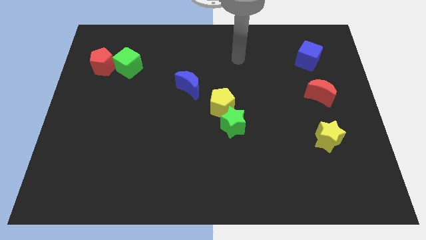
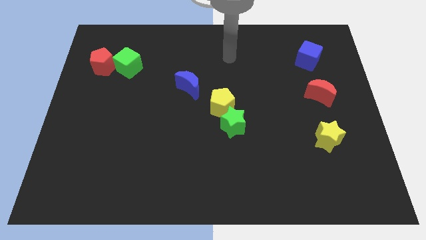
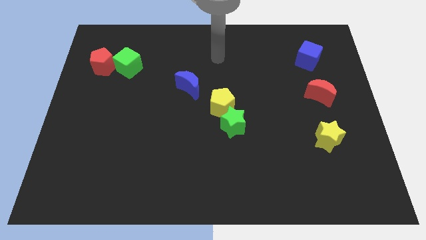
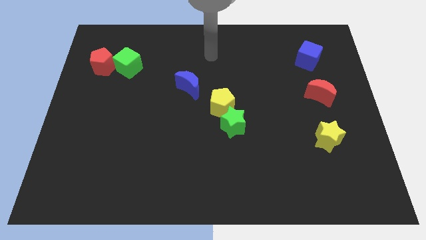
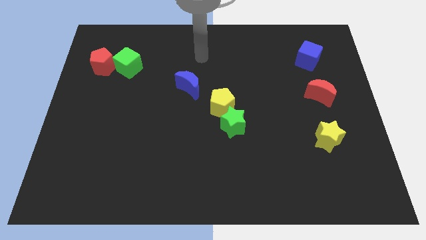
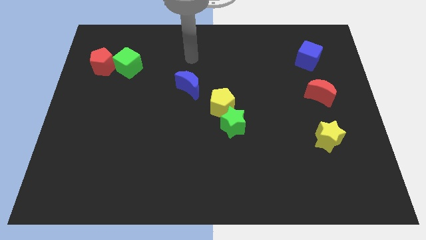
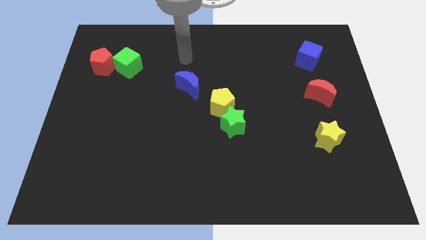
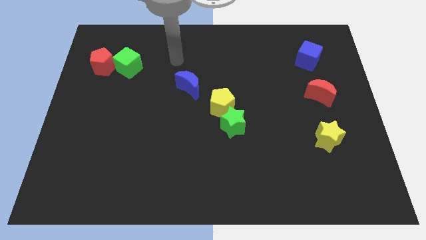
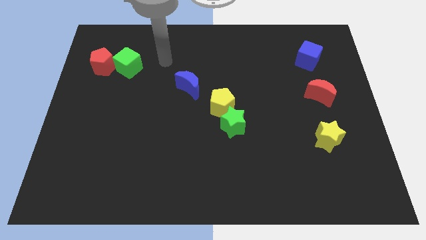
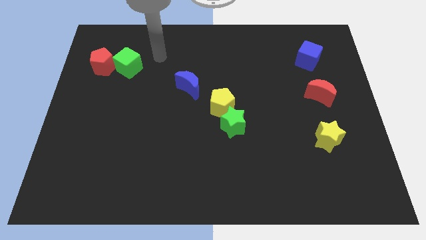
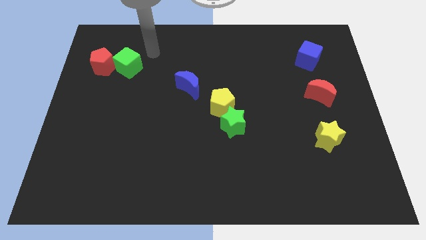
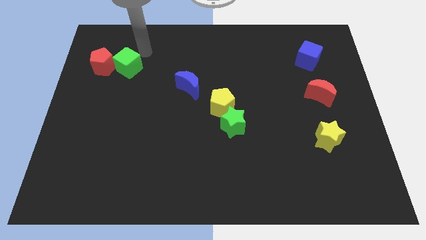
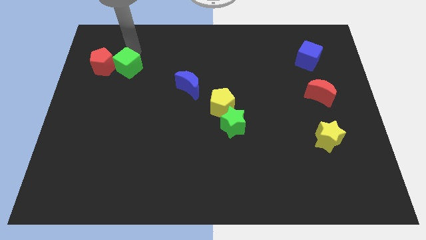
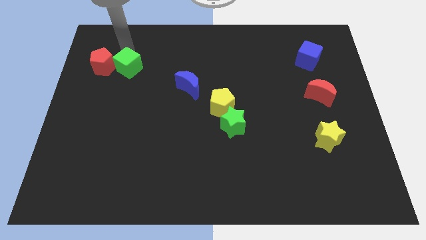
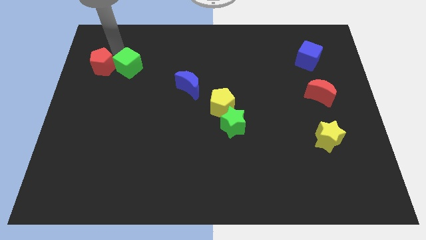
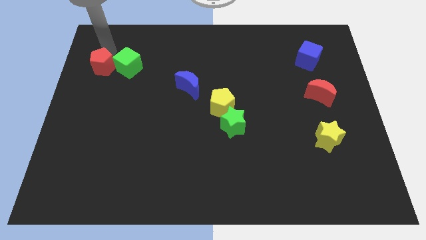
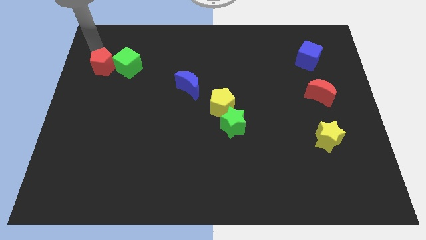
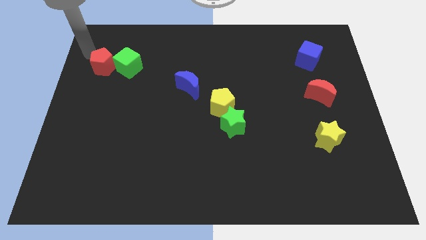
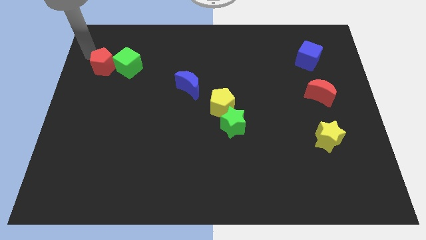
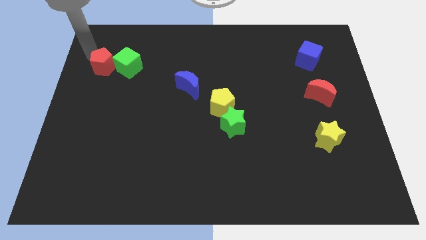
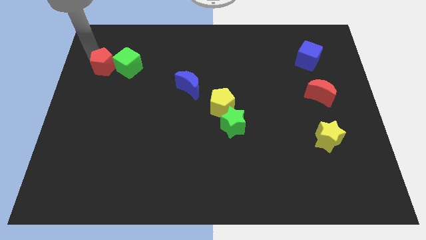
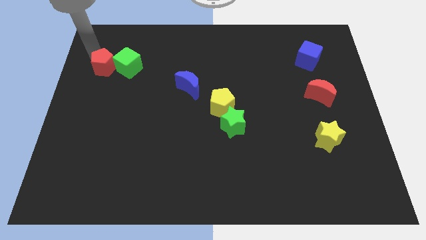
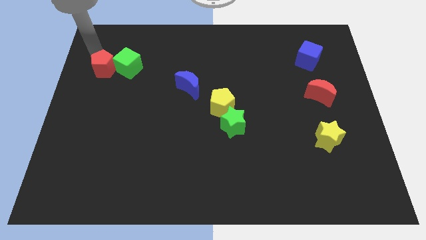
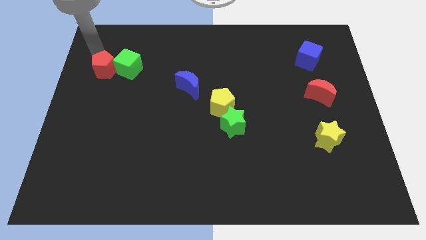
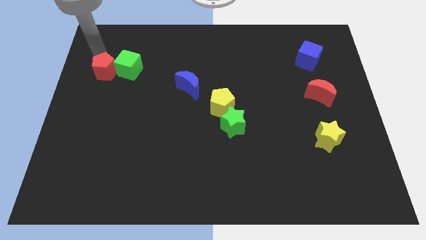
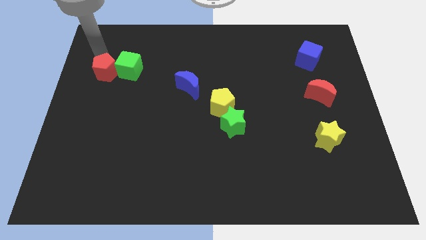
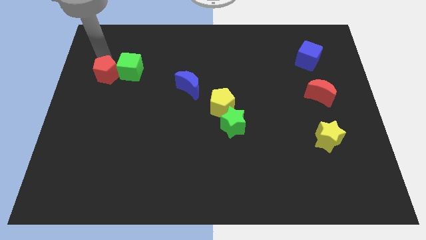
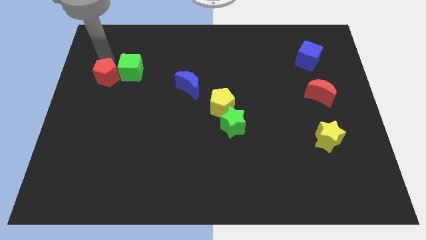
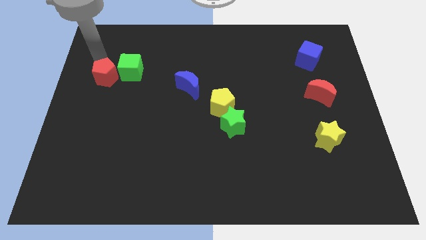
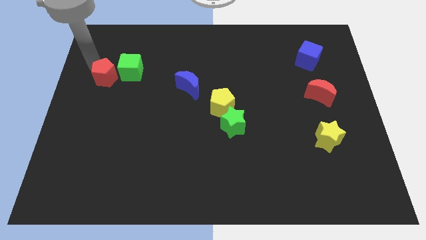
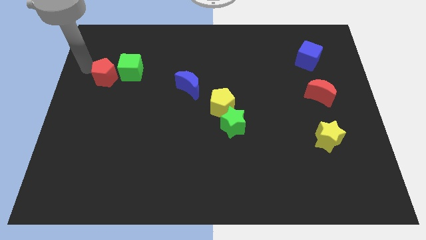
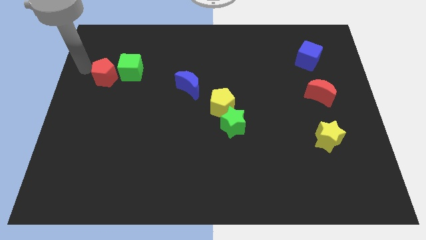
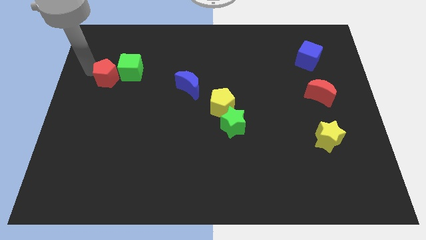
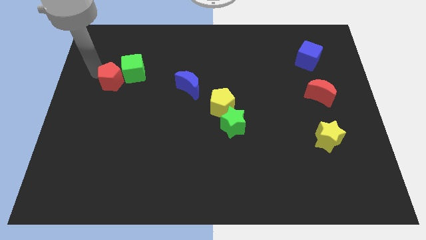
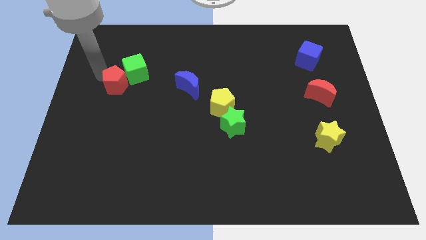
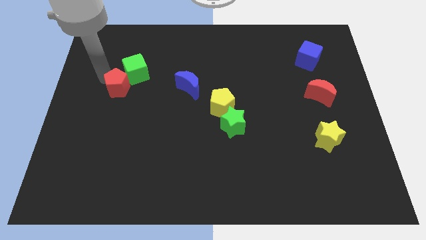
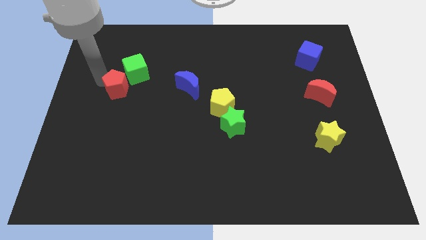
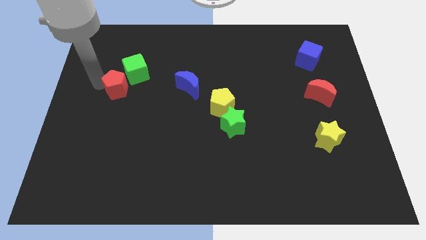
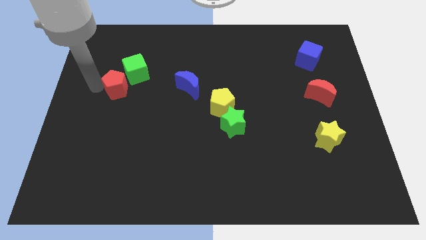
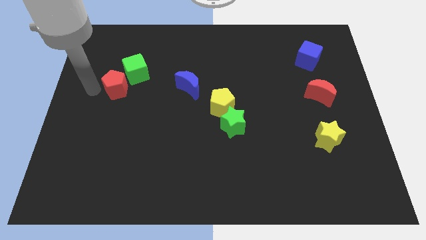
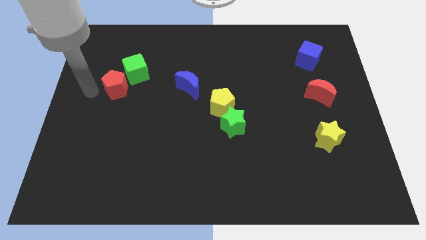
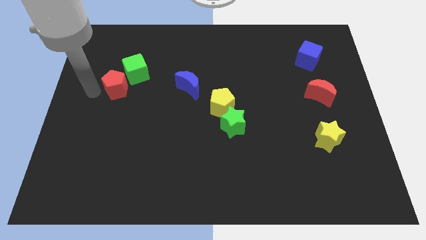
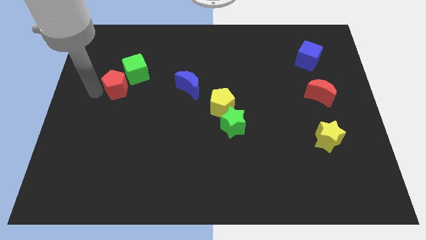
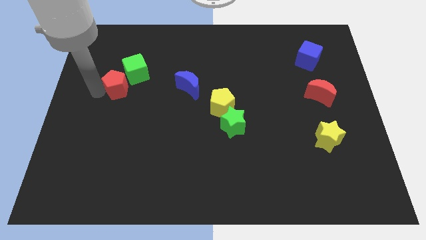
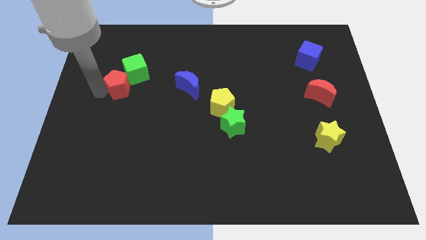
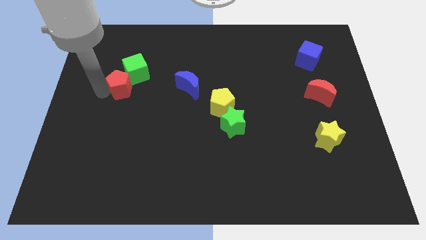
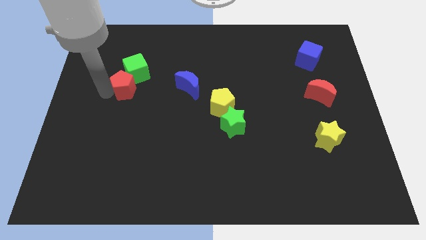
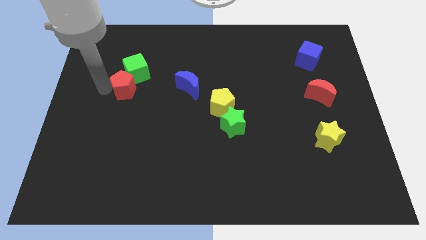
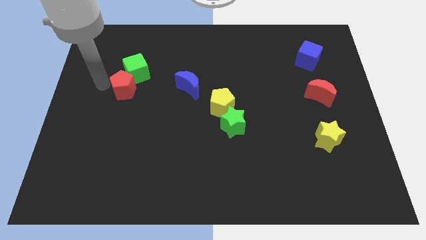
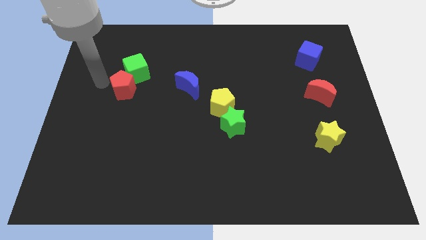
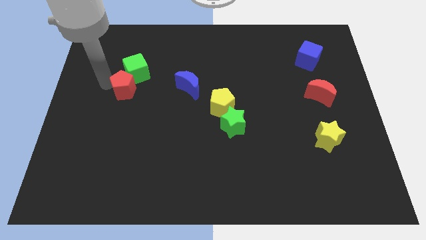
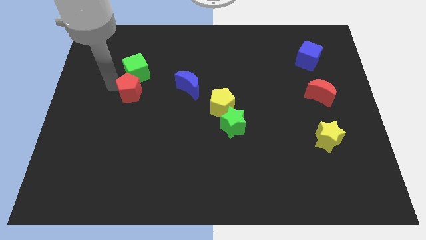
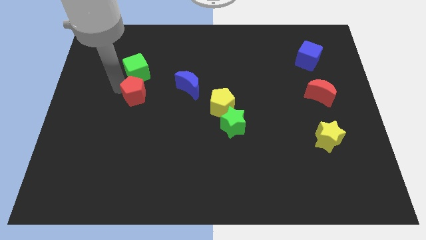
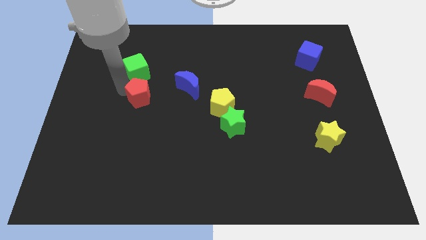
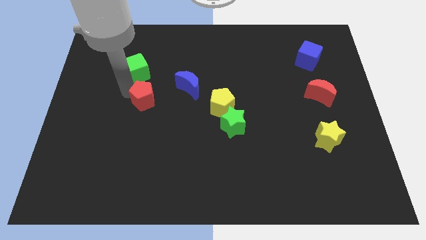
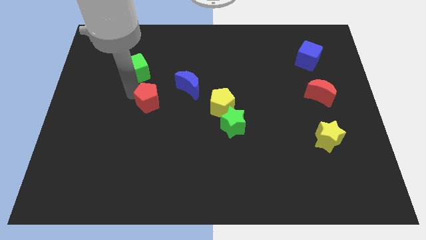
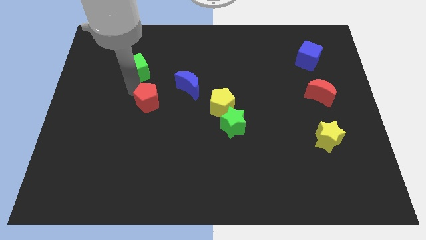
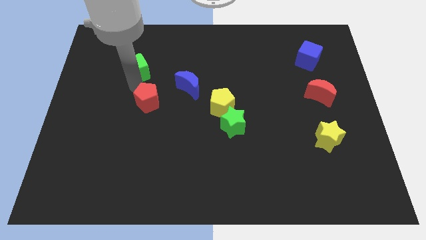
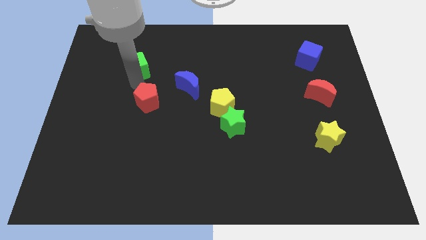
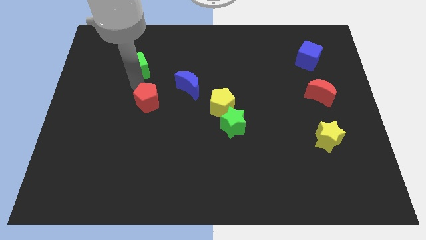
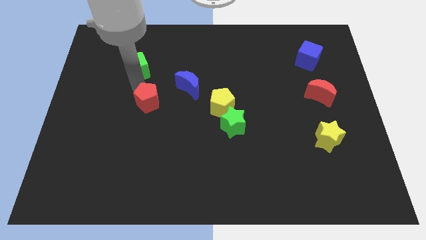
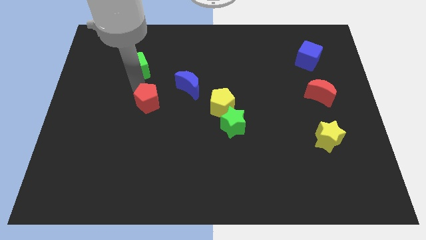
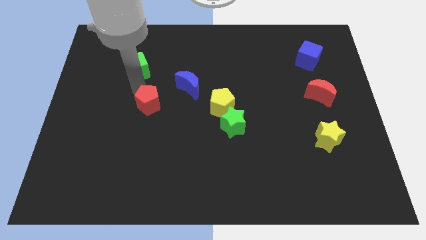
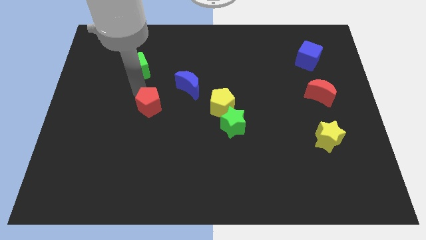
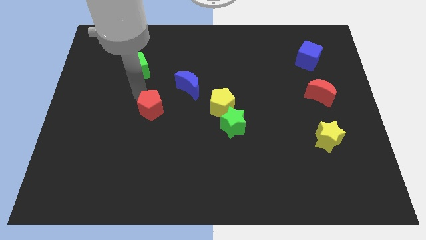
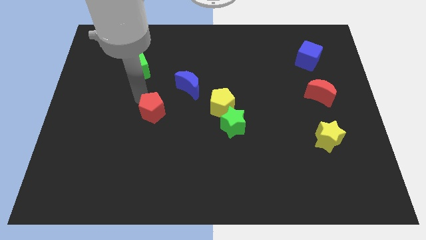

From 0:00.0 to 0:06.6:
push the red pentagon downwards and right diagonally

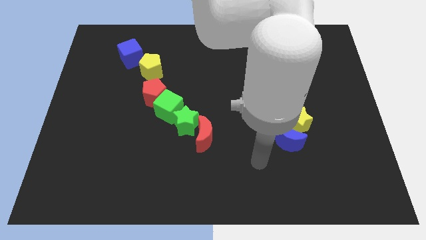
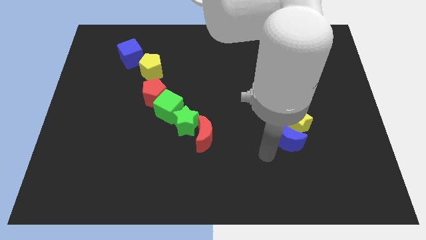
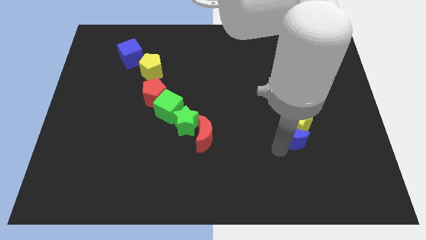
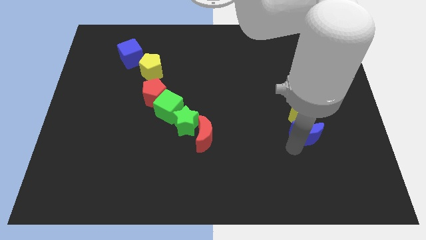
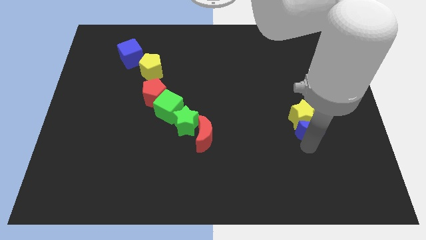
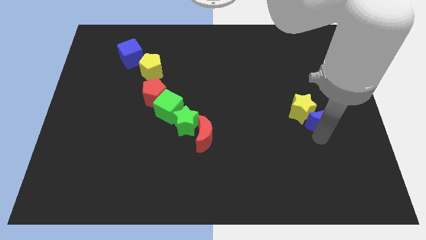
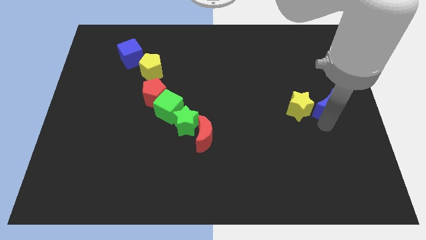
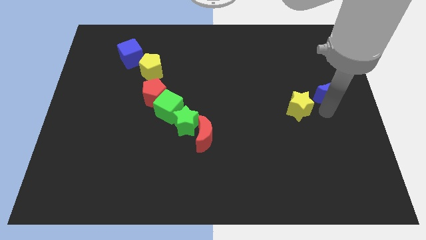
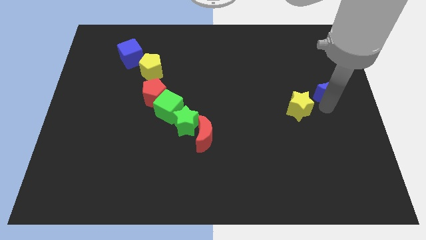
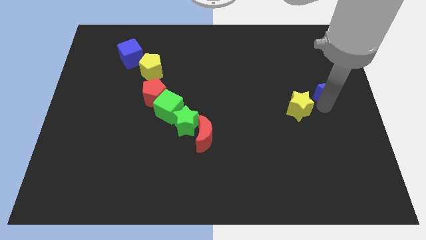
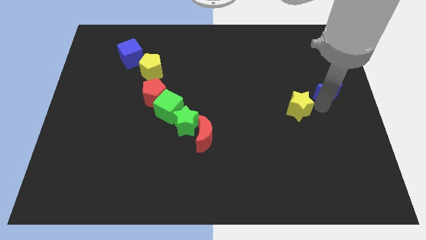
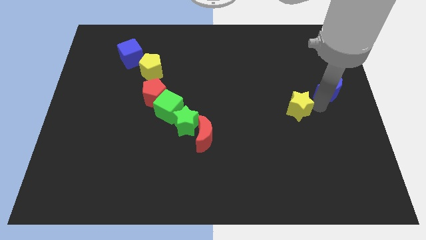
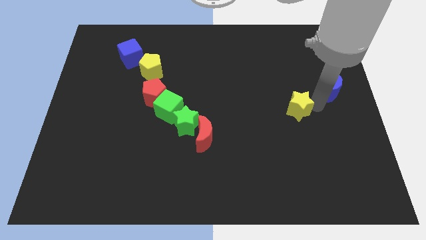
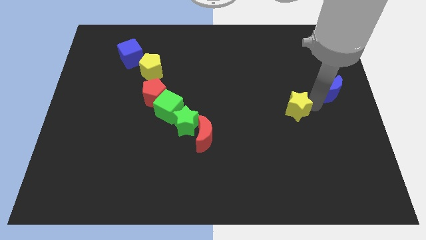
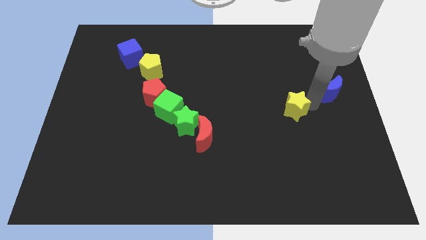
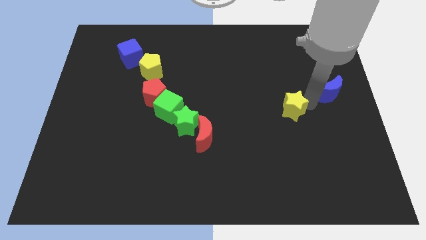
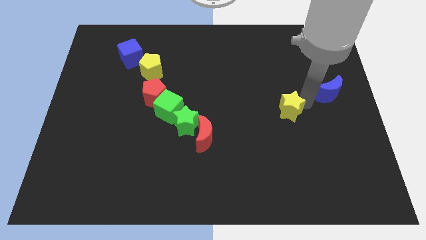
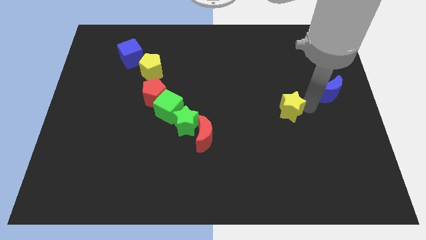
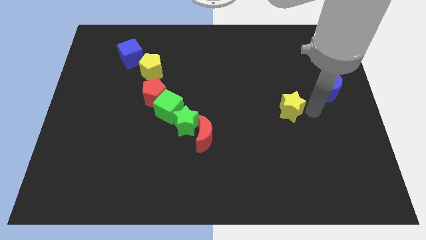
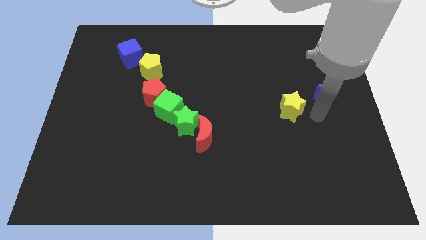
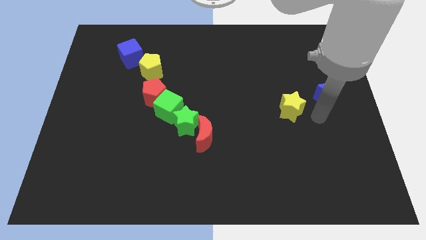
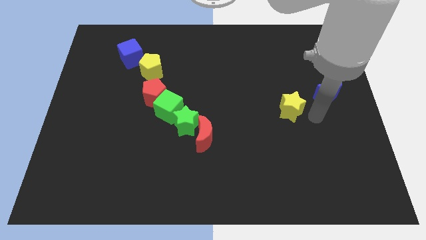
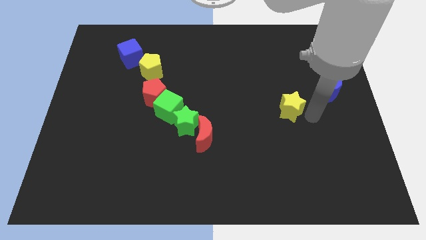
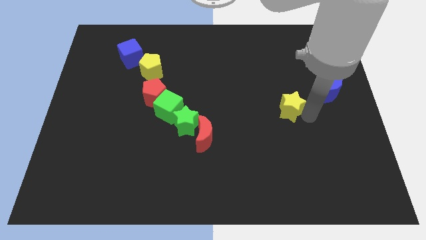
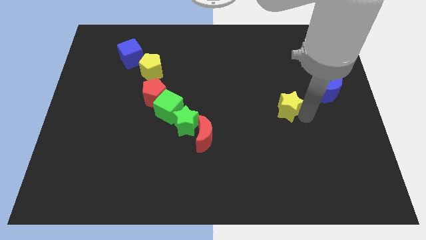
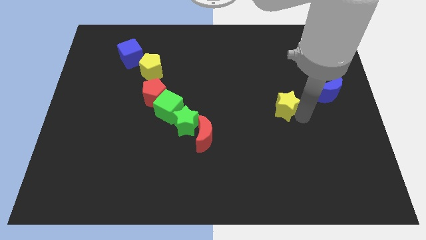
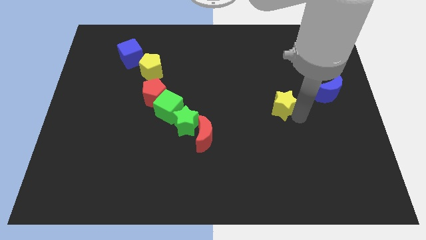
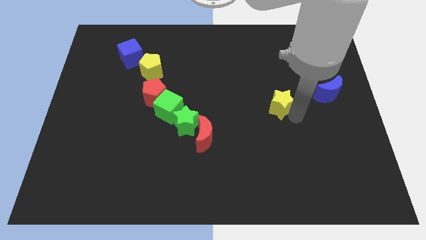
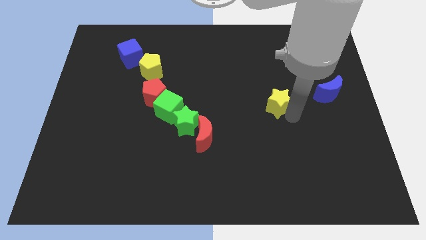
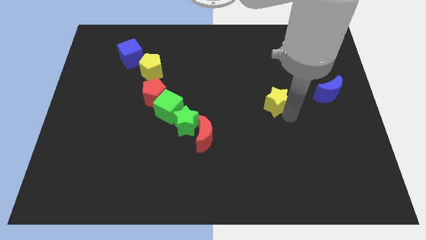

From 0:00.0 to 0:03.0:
slide the yellow star upwards and then to the left a little
